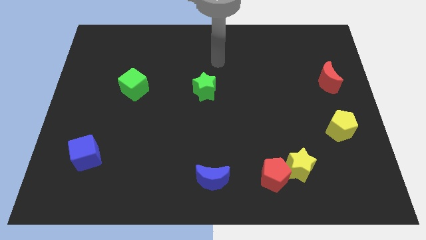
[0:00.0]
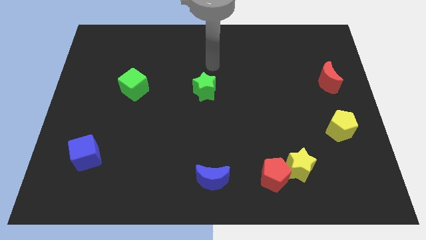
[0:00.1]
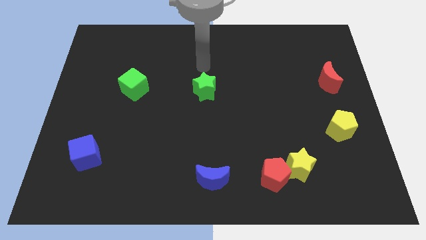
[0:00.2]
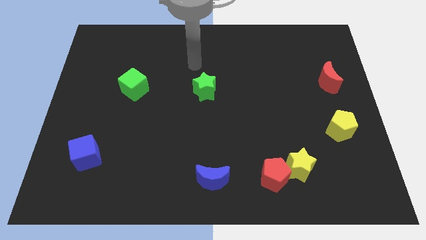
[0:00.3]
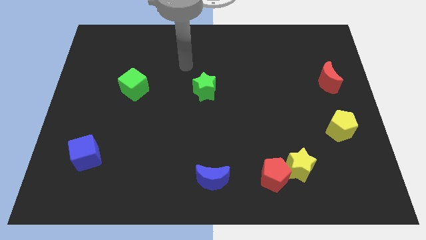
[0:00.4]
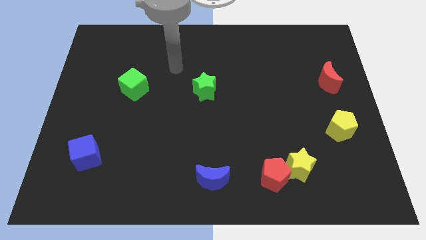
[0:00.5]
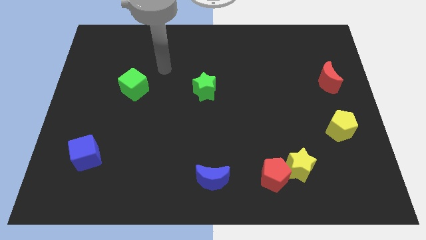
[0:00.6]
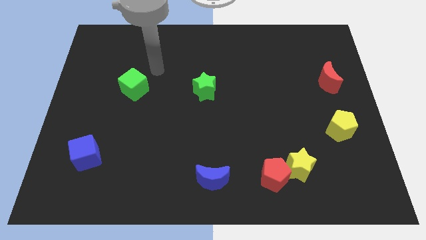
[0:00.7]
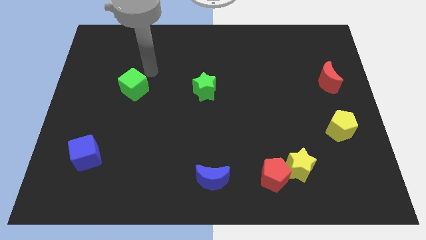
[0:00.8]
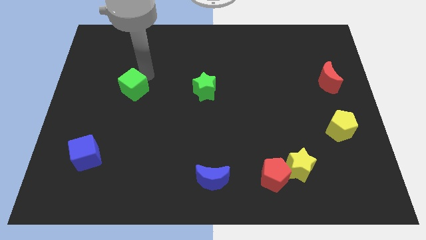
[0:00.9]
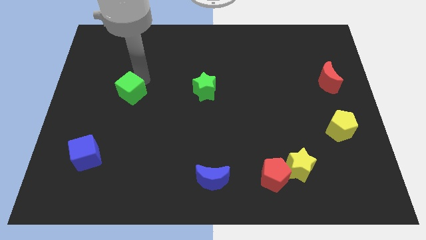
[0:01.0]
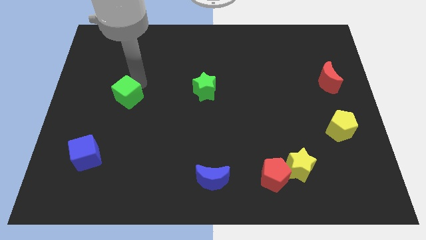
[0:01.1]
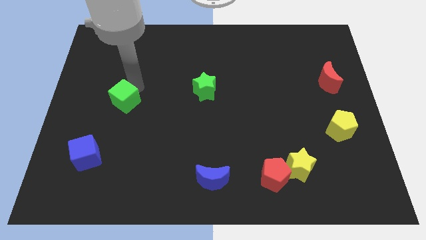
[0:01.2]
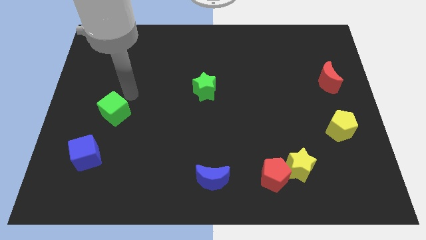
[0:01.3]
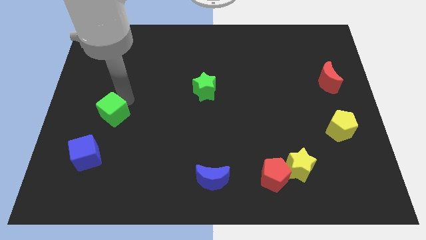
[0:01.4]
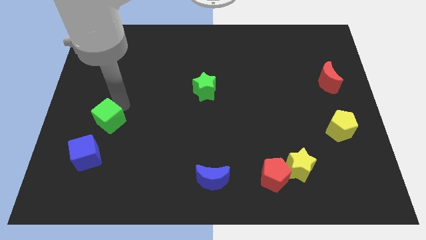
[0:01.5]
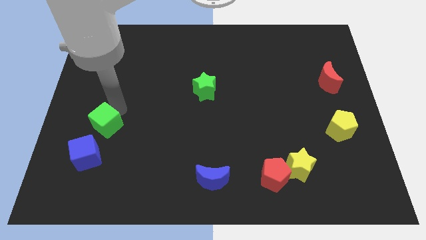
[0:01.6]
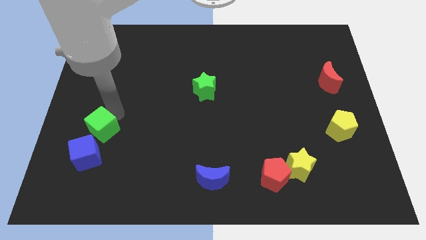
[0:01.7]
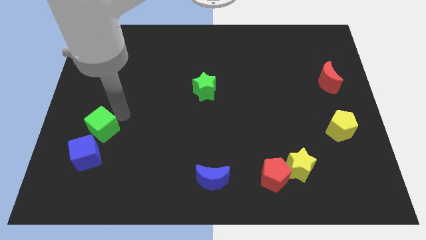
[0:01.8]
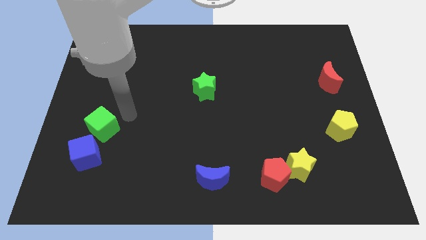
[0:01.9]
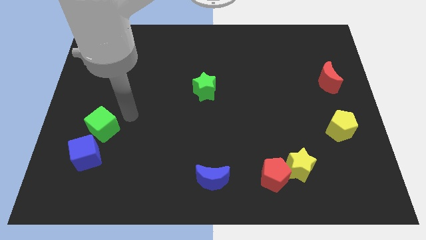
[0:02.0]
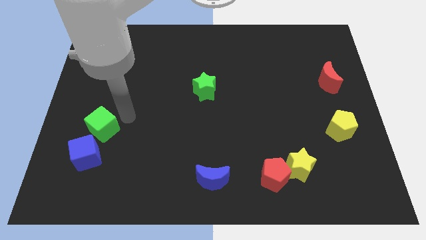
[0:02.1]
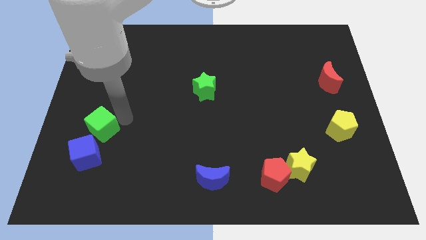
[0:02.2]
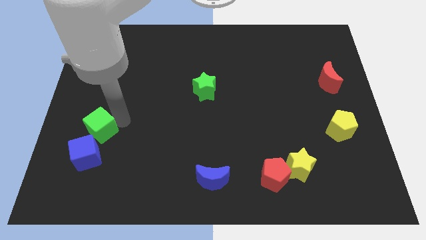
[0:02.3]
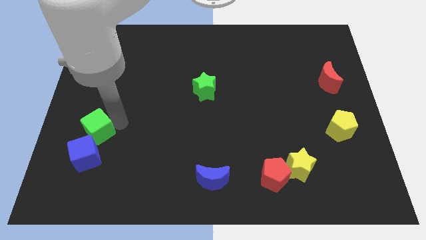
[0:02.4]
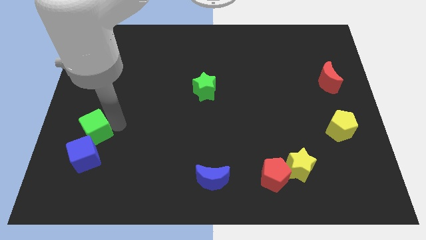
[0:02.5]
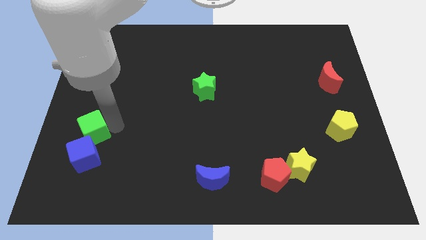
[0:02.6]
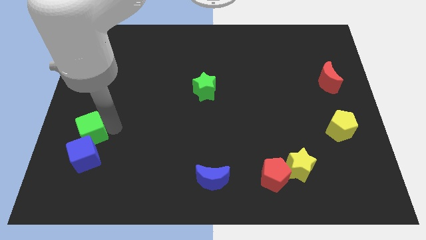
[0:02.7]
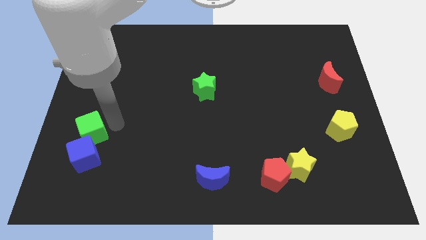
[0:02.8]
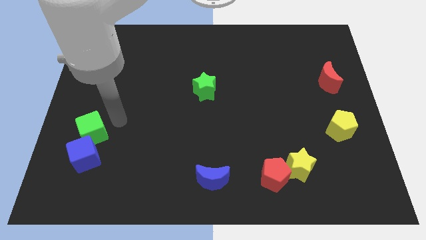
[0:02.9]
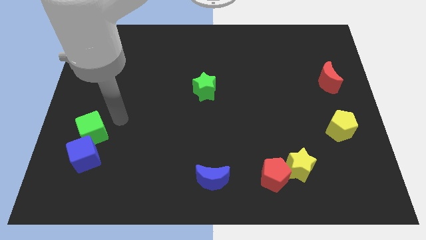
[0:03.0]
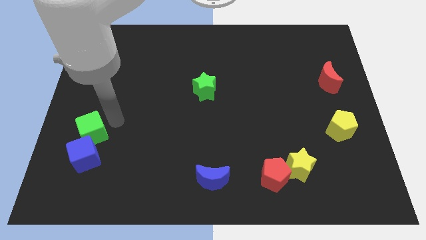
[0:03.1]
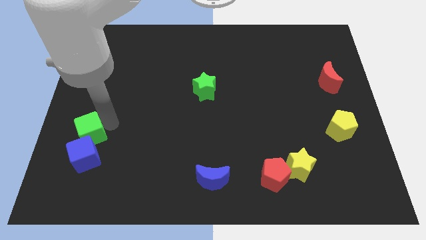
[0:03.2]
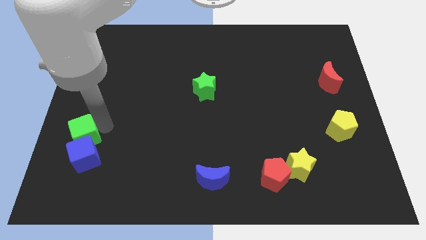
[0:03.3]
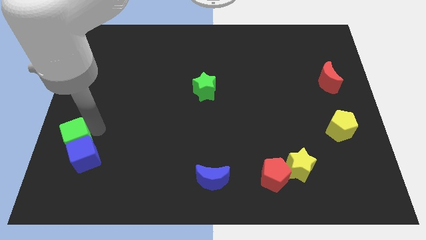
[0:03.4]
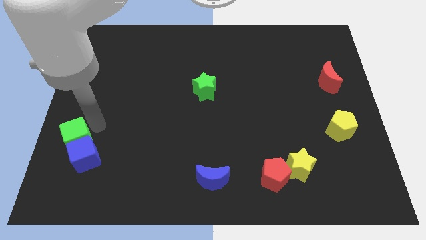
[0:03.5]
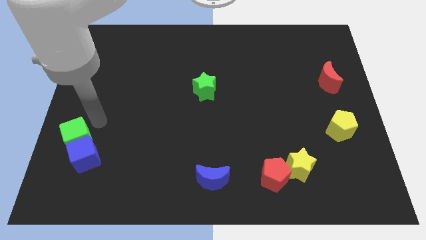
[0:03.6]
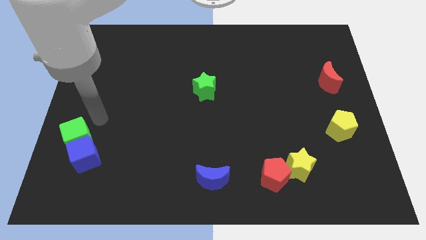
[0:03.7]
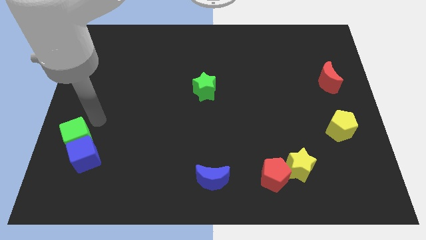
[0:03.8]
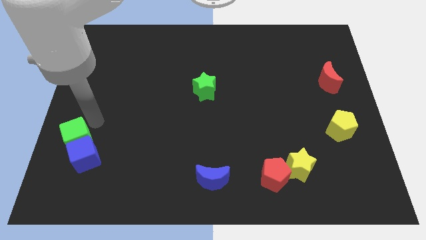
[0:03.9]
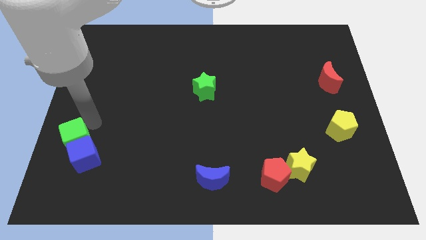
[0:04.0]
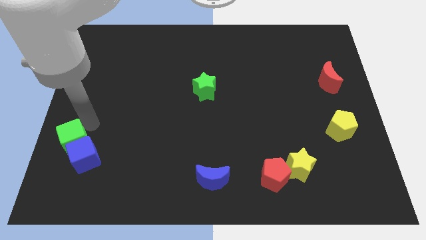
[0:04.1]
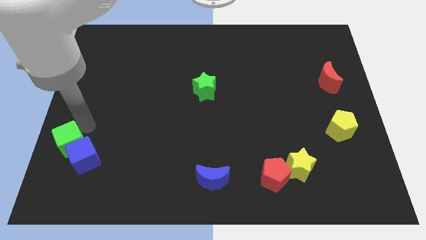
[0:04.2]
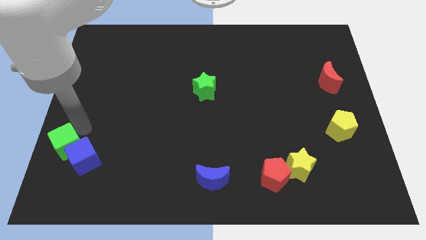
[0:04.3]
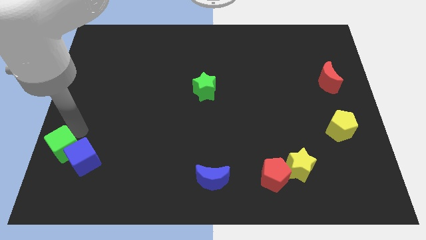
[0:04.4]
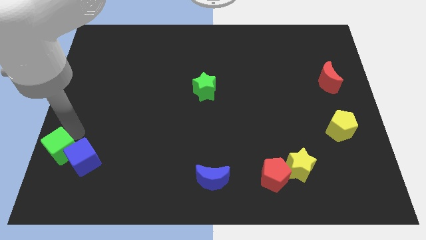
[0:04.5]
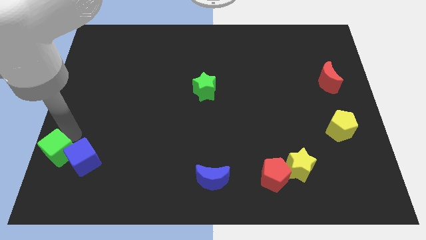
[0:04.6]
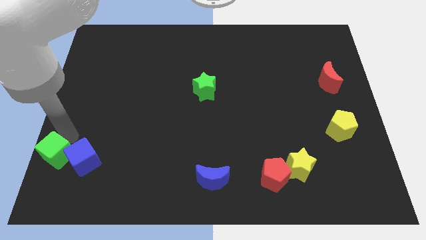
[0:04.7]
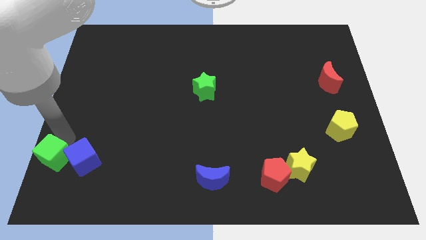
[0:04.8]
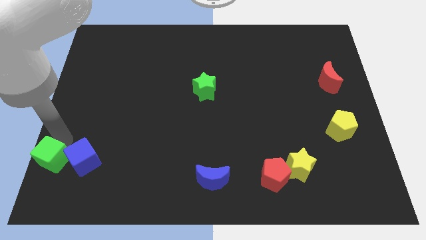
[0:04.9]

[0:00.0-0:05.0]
slide the green cube to the bottom left corner

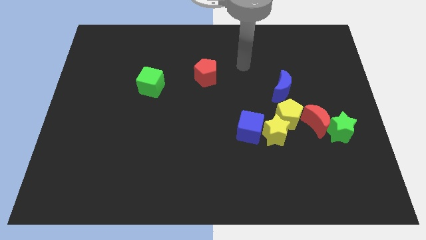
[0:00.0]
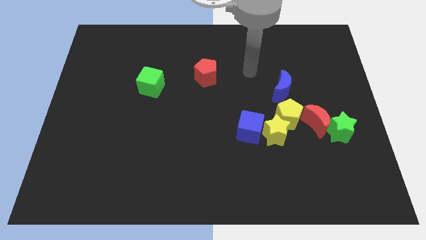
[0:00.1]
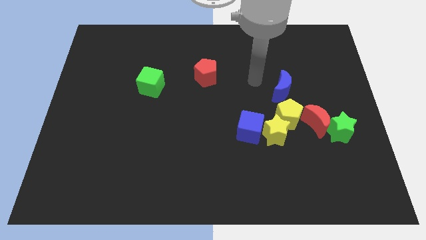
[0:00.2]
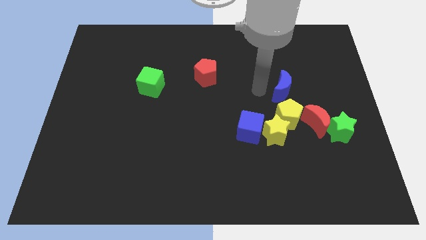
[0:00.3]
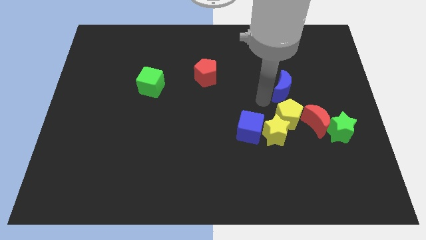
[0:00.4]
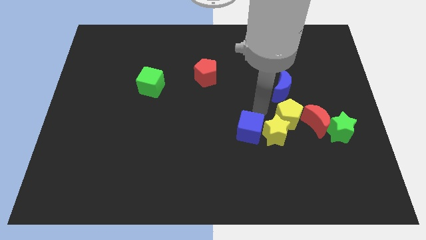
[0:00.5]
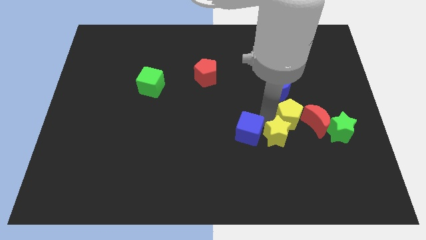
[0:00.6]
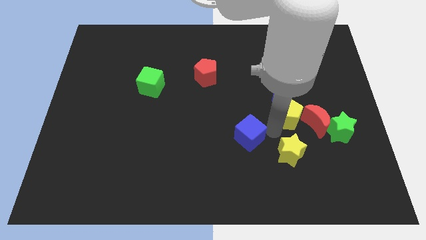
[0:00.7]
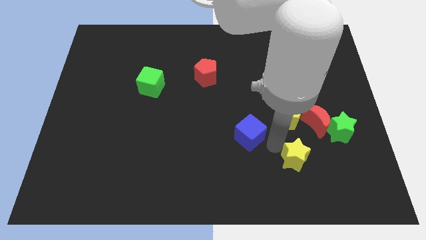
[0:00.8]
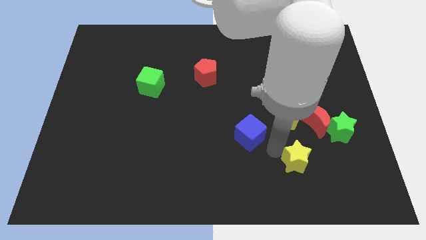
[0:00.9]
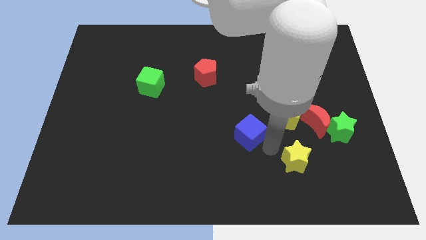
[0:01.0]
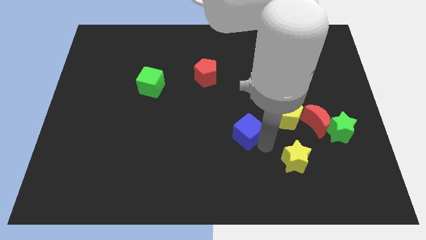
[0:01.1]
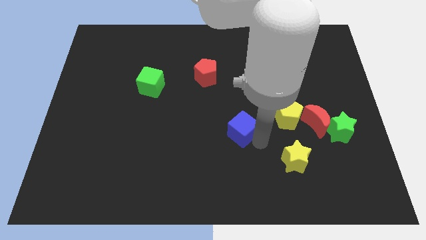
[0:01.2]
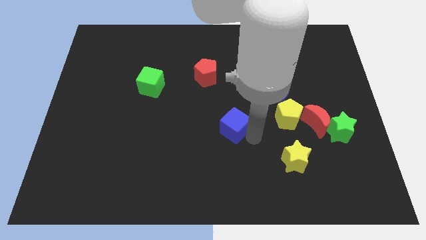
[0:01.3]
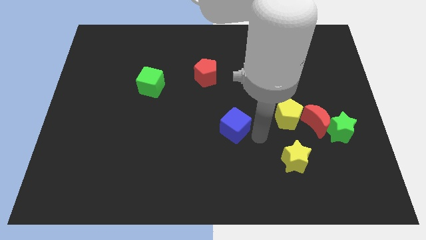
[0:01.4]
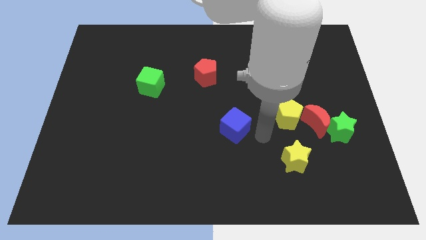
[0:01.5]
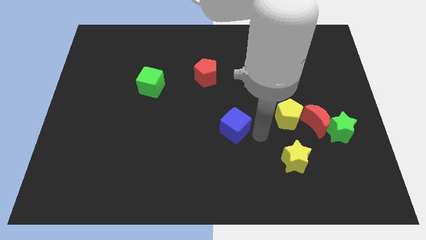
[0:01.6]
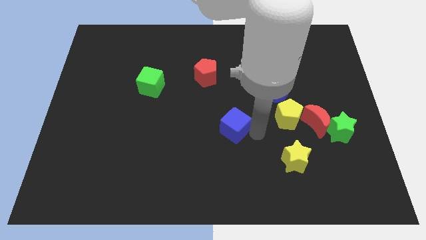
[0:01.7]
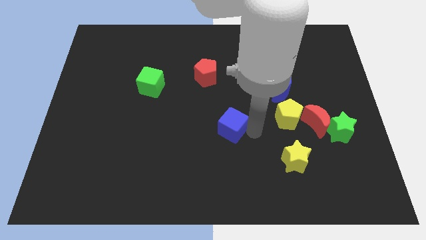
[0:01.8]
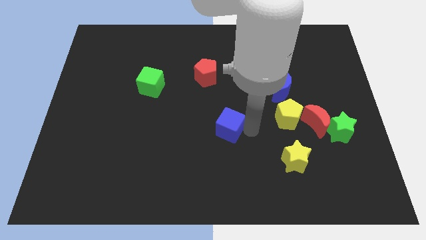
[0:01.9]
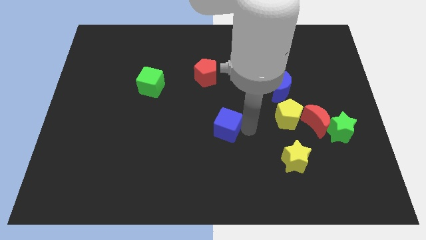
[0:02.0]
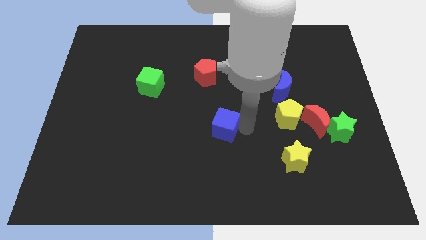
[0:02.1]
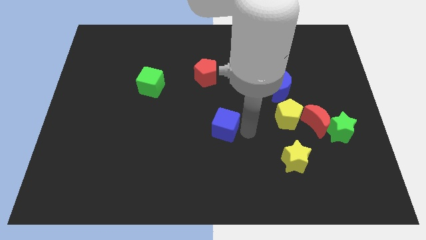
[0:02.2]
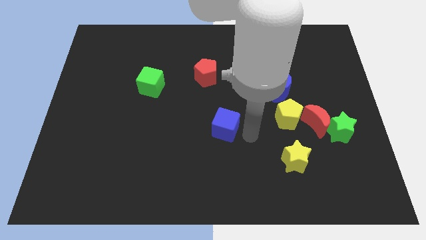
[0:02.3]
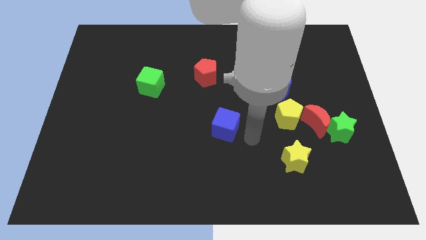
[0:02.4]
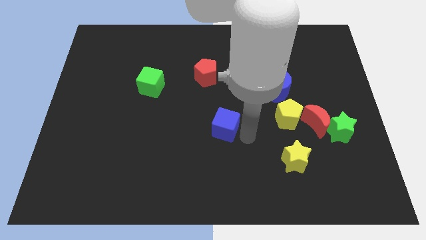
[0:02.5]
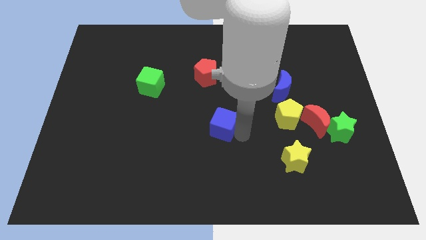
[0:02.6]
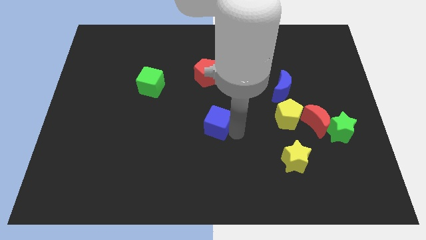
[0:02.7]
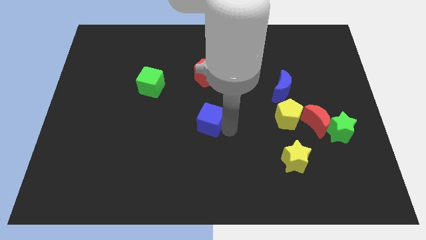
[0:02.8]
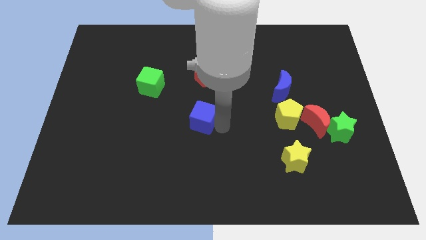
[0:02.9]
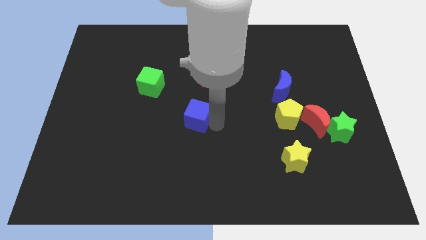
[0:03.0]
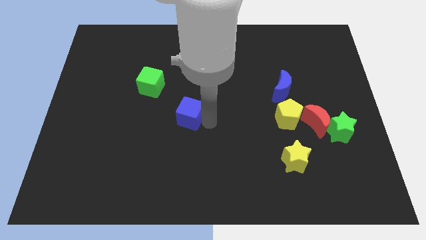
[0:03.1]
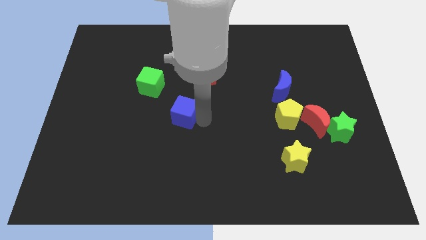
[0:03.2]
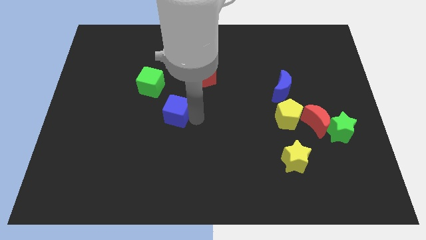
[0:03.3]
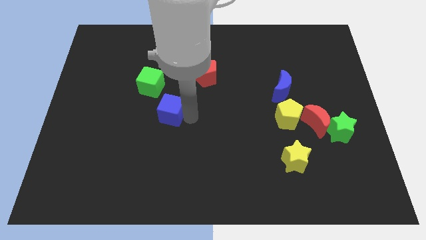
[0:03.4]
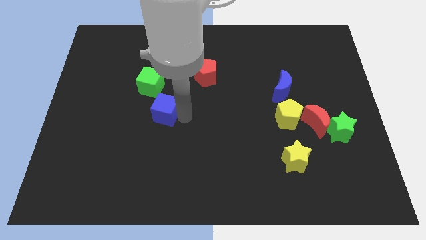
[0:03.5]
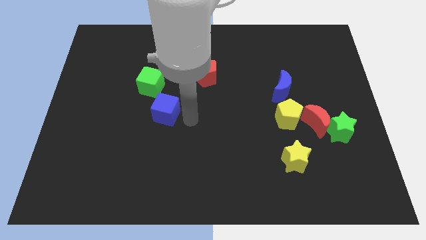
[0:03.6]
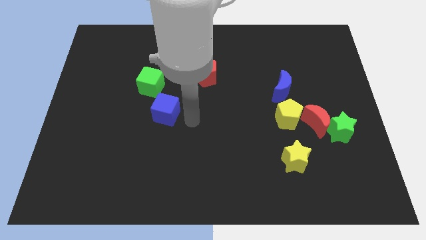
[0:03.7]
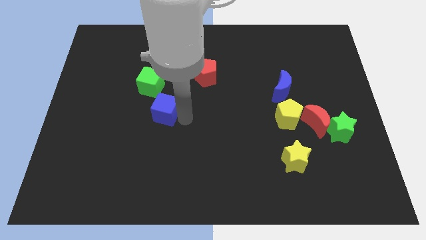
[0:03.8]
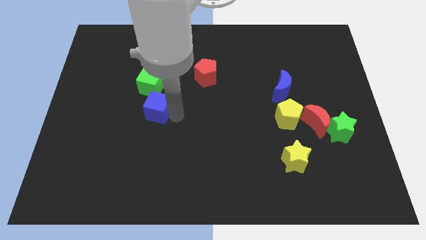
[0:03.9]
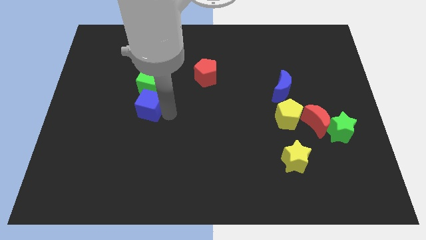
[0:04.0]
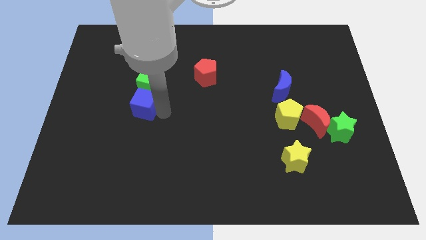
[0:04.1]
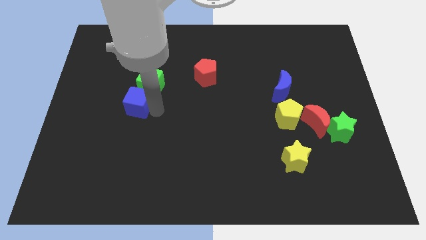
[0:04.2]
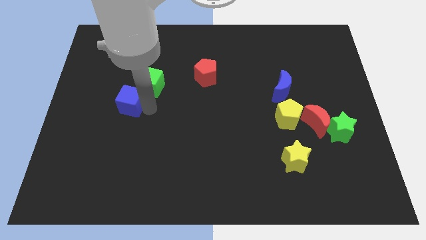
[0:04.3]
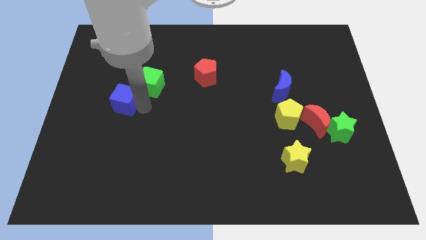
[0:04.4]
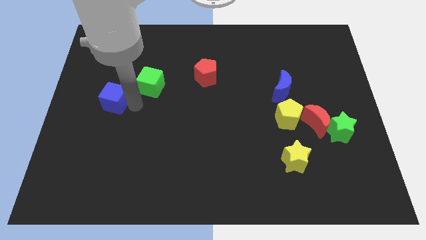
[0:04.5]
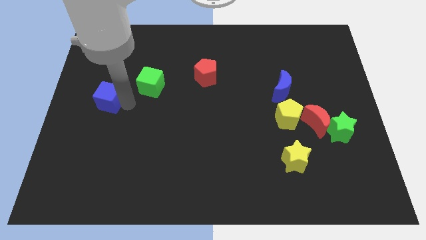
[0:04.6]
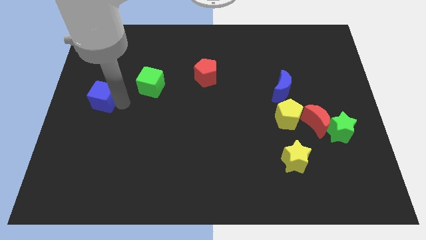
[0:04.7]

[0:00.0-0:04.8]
put the blue cube to the center left
